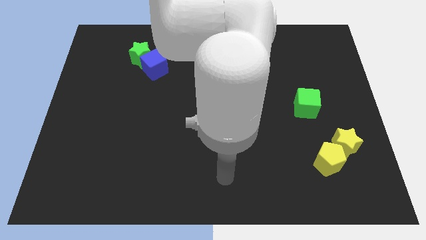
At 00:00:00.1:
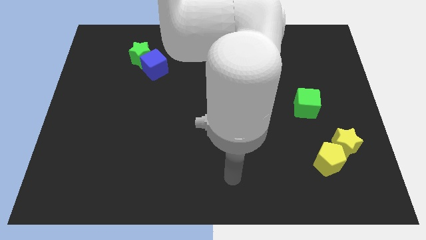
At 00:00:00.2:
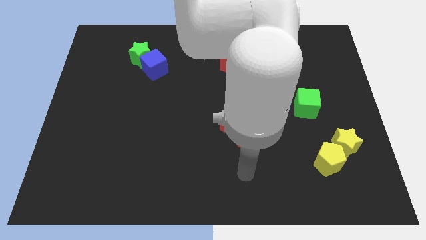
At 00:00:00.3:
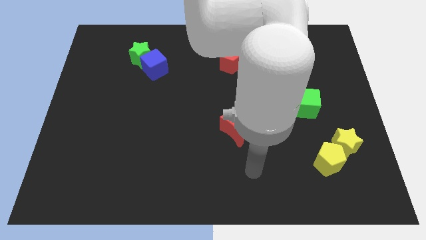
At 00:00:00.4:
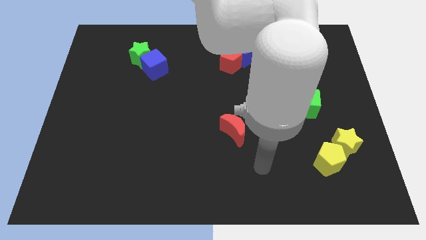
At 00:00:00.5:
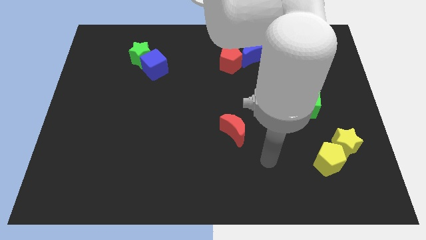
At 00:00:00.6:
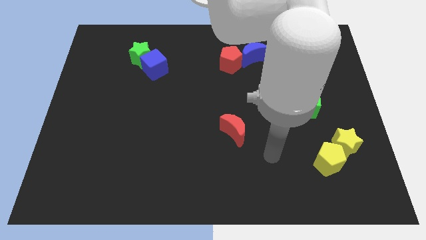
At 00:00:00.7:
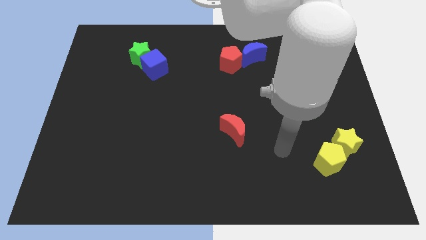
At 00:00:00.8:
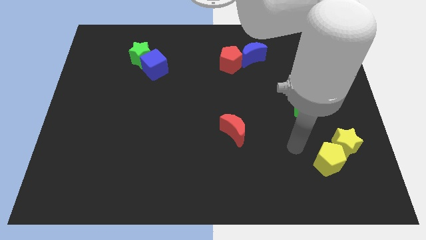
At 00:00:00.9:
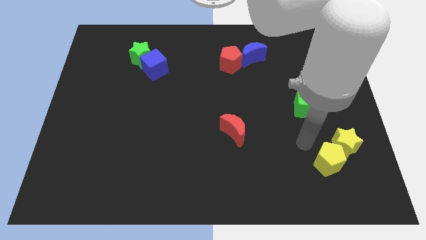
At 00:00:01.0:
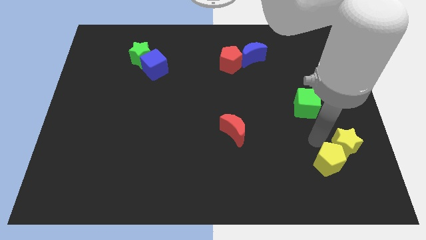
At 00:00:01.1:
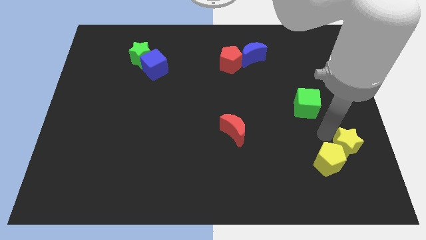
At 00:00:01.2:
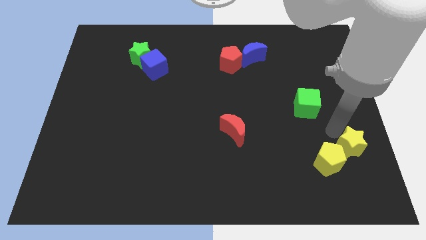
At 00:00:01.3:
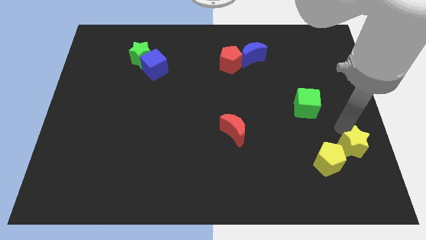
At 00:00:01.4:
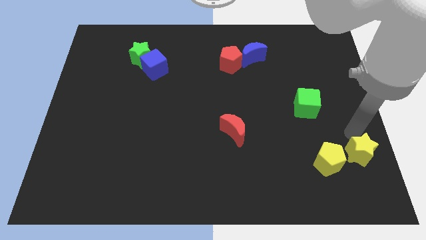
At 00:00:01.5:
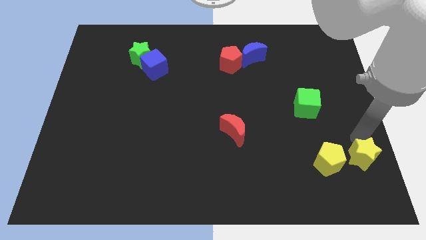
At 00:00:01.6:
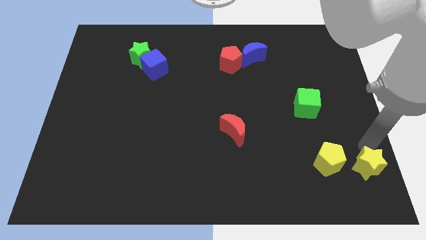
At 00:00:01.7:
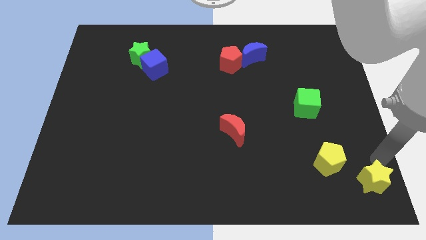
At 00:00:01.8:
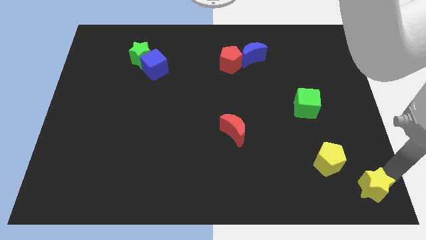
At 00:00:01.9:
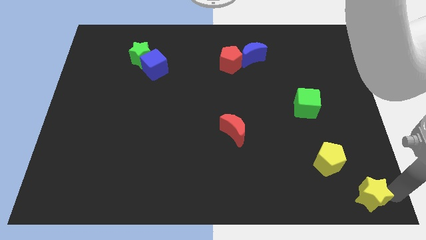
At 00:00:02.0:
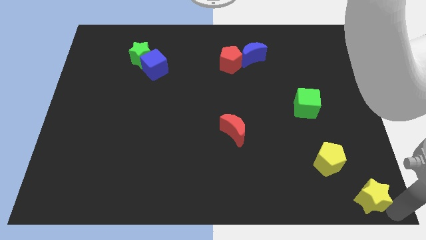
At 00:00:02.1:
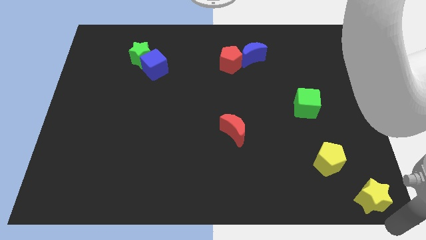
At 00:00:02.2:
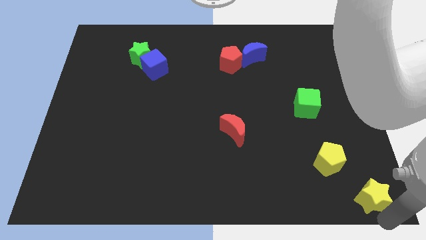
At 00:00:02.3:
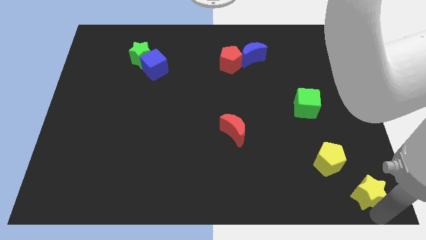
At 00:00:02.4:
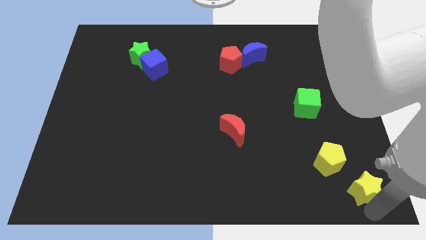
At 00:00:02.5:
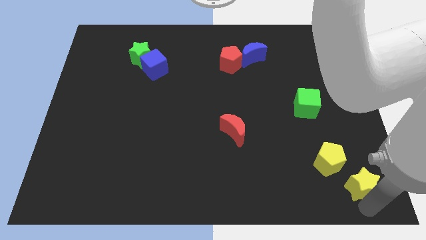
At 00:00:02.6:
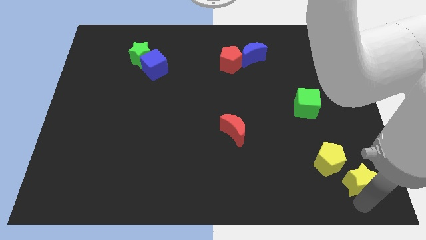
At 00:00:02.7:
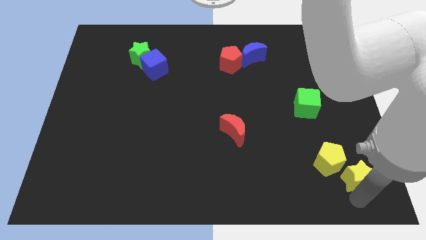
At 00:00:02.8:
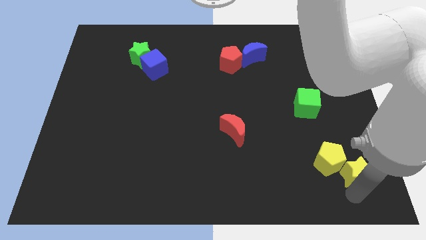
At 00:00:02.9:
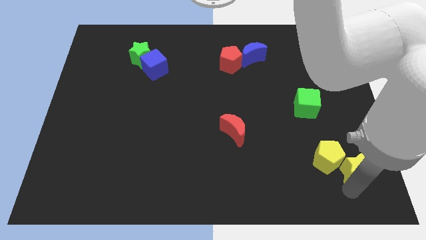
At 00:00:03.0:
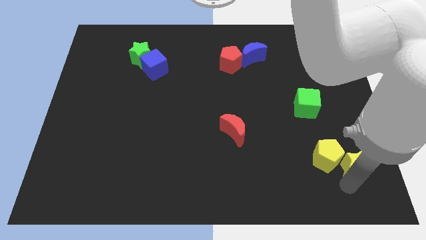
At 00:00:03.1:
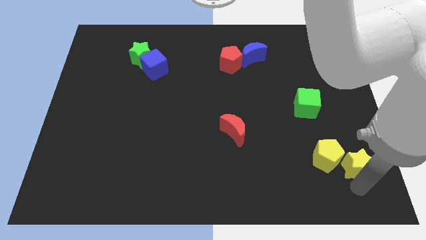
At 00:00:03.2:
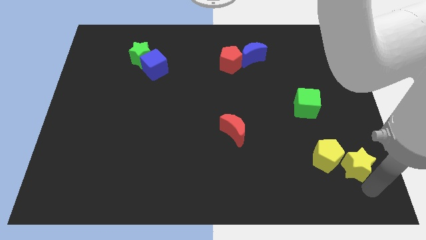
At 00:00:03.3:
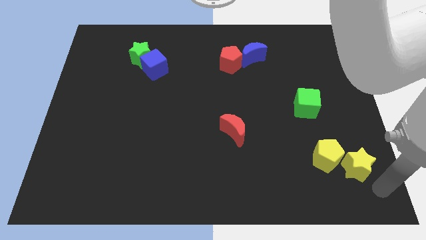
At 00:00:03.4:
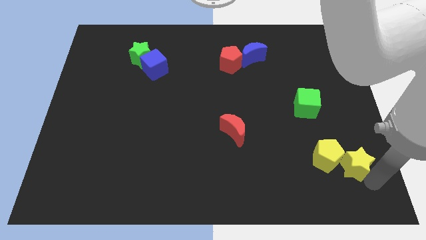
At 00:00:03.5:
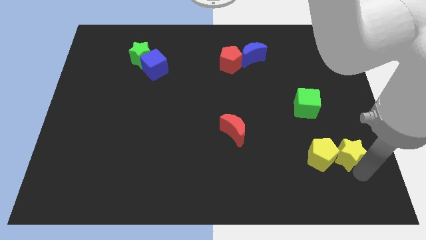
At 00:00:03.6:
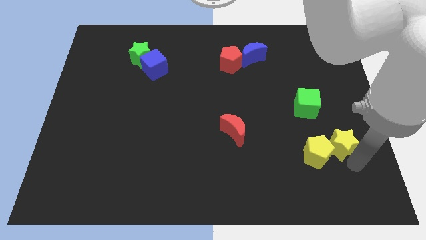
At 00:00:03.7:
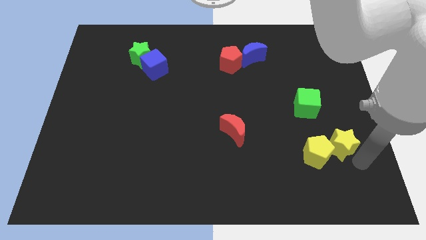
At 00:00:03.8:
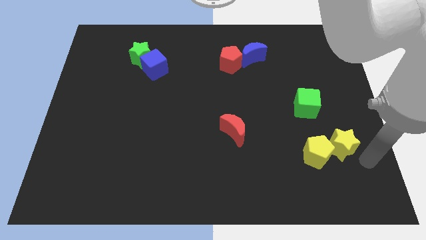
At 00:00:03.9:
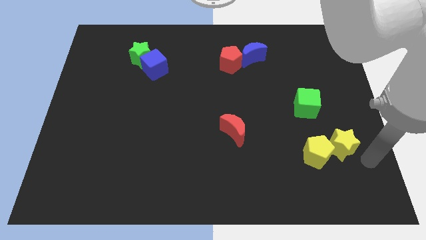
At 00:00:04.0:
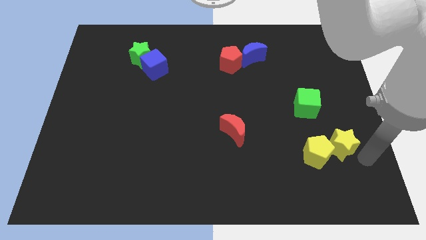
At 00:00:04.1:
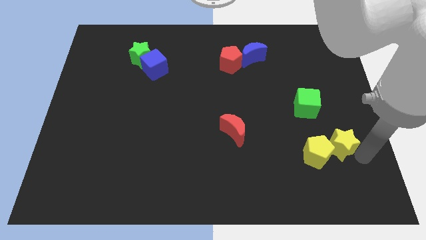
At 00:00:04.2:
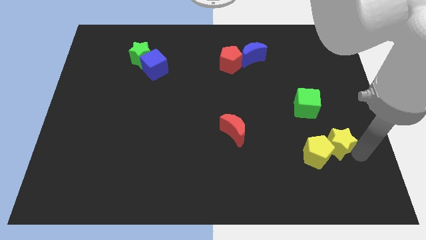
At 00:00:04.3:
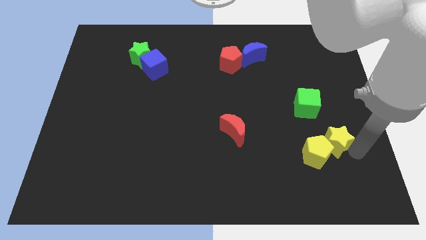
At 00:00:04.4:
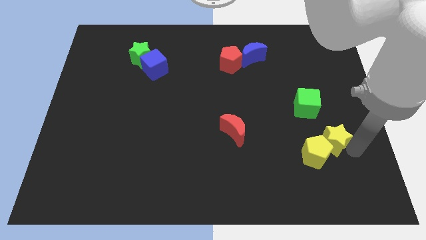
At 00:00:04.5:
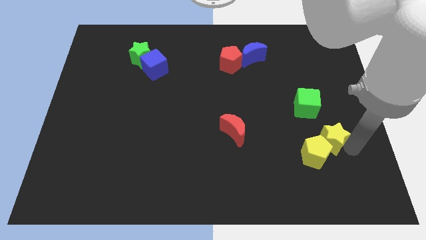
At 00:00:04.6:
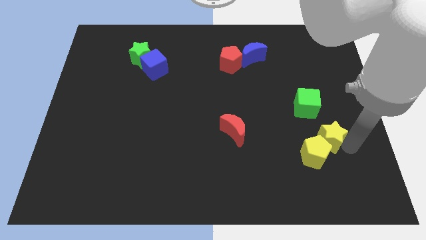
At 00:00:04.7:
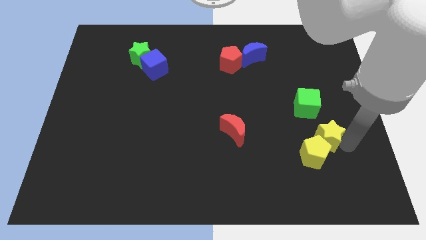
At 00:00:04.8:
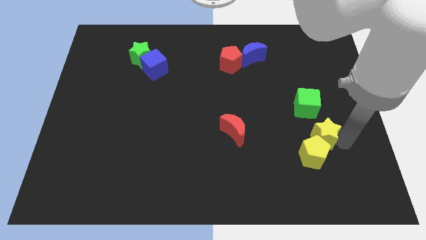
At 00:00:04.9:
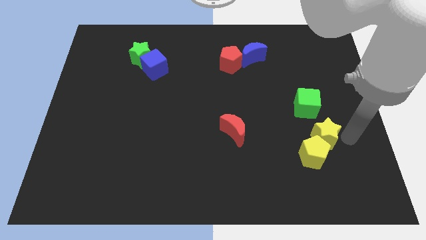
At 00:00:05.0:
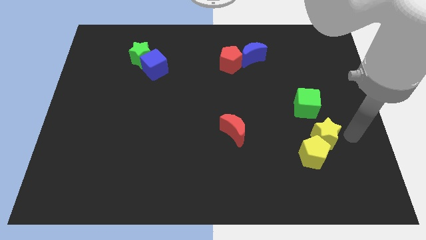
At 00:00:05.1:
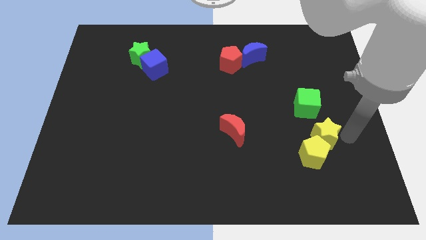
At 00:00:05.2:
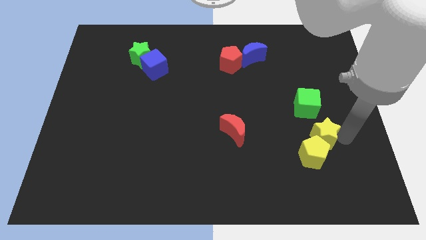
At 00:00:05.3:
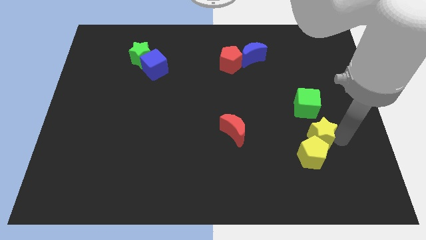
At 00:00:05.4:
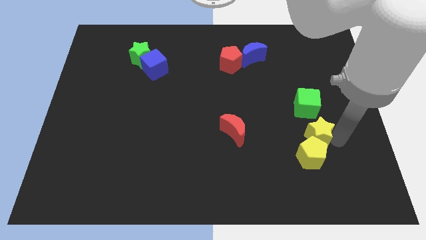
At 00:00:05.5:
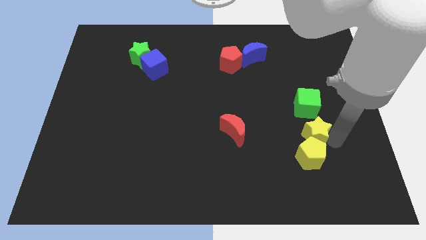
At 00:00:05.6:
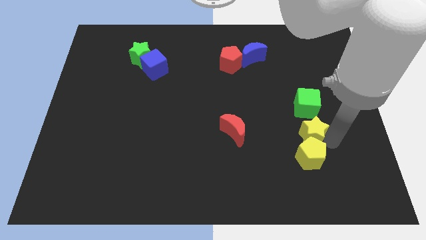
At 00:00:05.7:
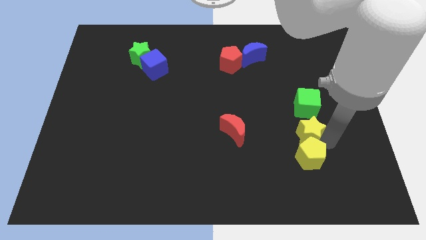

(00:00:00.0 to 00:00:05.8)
push the yellow star somewhat to the left

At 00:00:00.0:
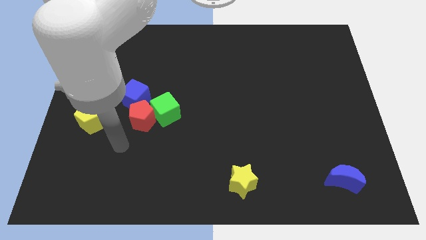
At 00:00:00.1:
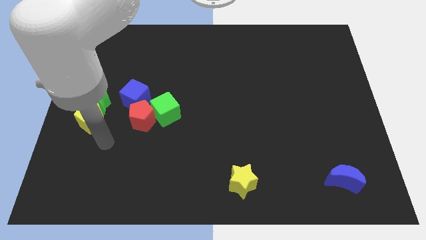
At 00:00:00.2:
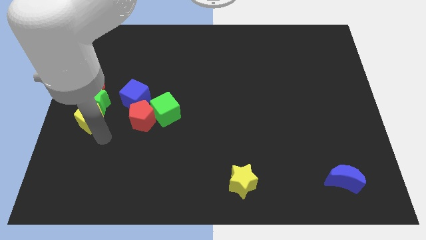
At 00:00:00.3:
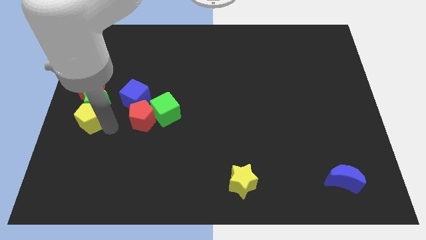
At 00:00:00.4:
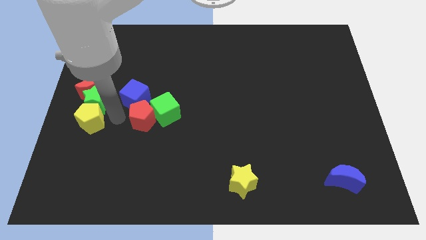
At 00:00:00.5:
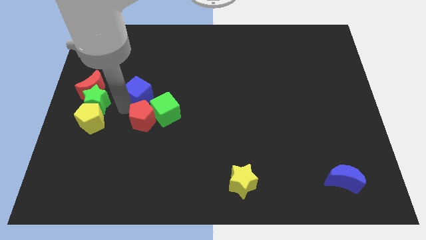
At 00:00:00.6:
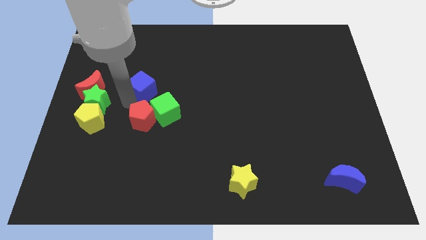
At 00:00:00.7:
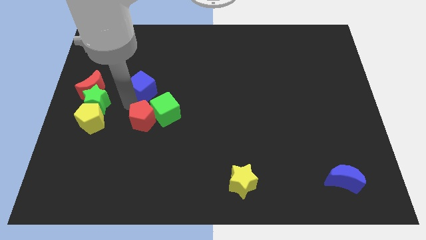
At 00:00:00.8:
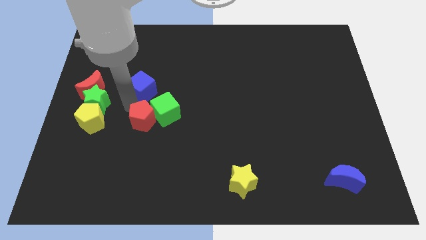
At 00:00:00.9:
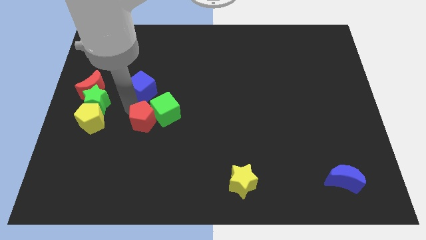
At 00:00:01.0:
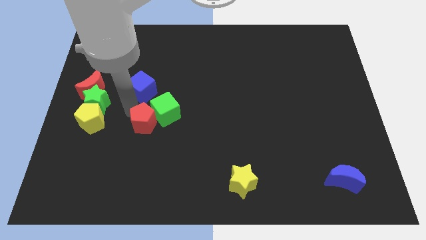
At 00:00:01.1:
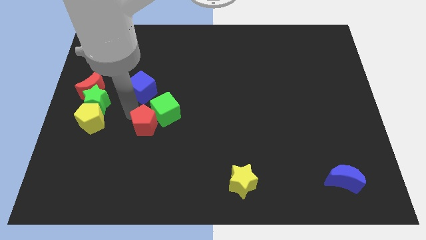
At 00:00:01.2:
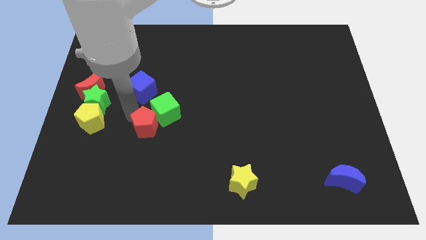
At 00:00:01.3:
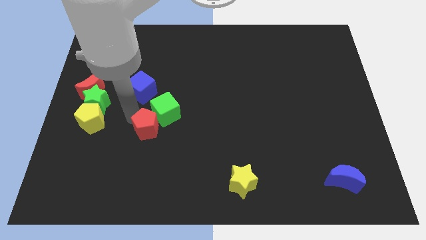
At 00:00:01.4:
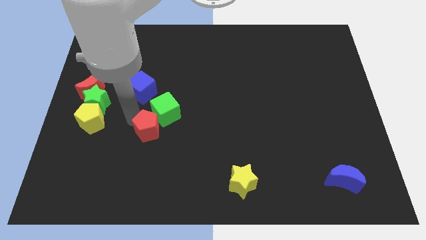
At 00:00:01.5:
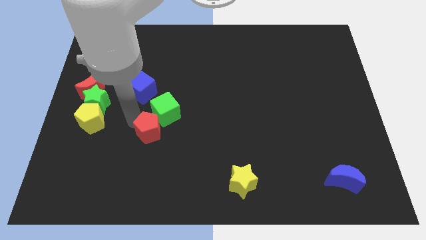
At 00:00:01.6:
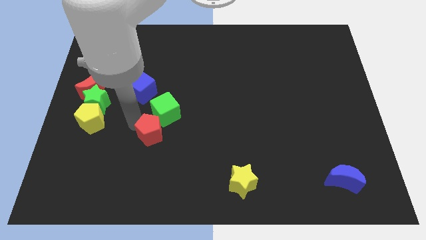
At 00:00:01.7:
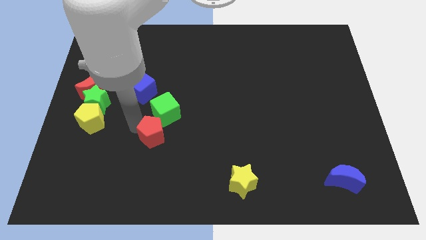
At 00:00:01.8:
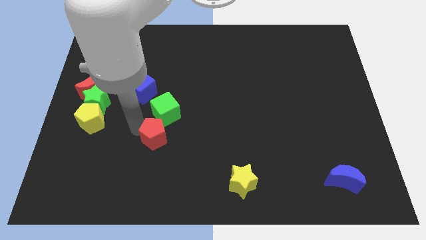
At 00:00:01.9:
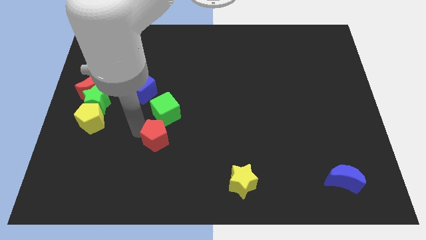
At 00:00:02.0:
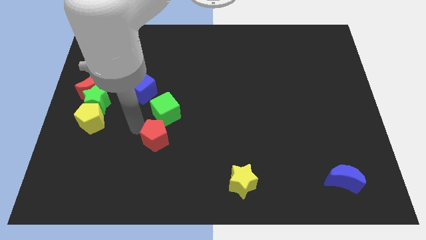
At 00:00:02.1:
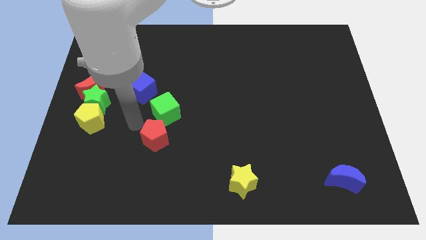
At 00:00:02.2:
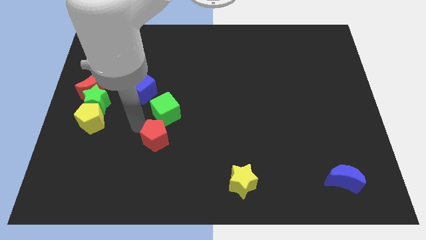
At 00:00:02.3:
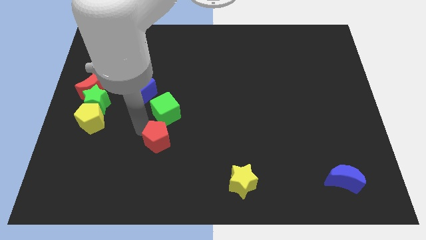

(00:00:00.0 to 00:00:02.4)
slightly move the red pentagon down and right diagonally
